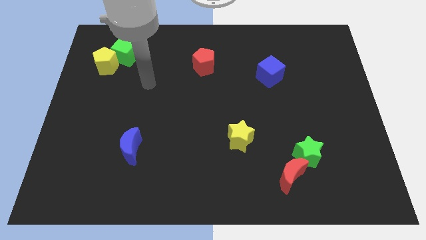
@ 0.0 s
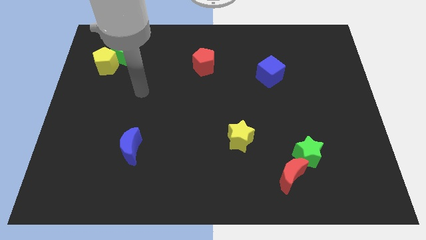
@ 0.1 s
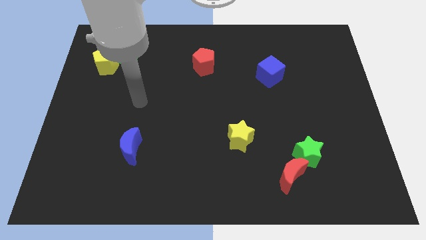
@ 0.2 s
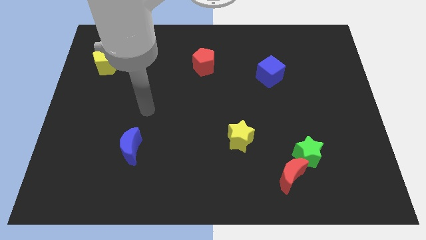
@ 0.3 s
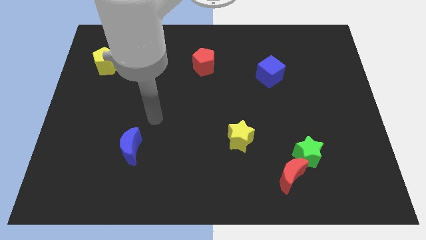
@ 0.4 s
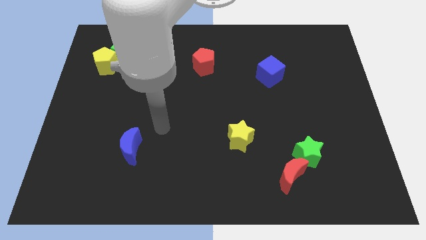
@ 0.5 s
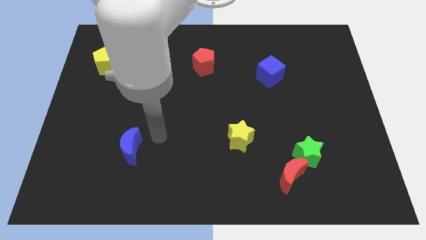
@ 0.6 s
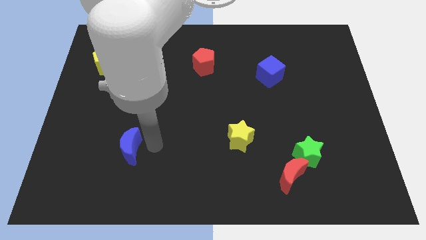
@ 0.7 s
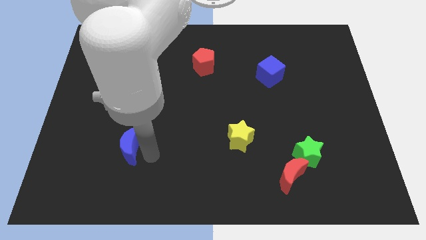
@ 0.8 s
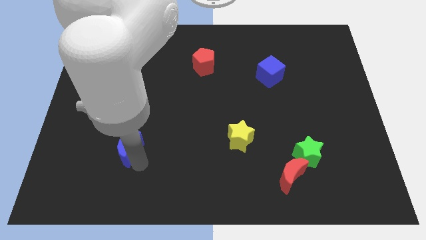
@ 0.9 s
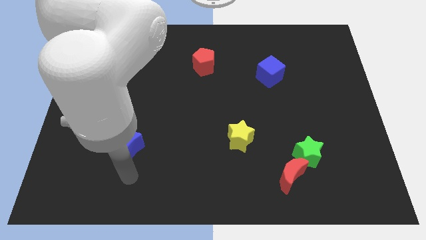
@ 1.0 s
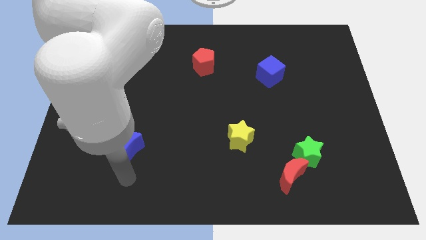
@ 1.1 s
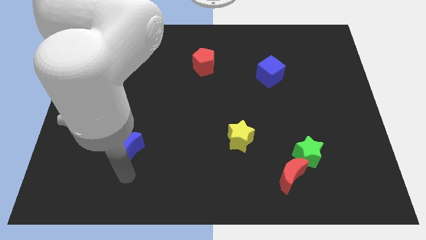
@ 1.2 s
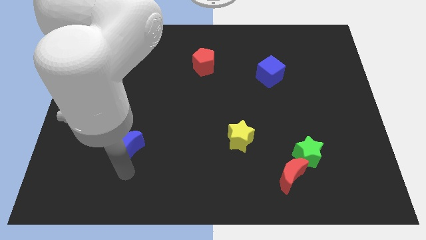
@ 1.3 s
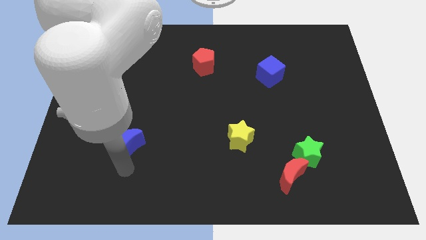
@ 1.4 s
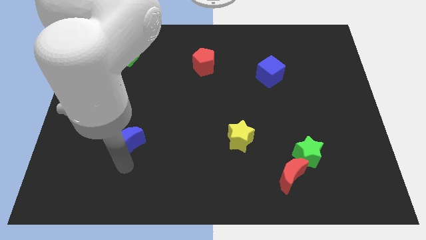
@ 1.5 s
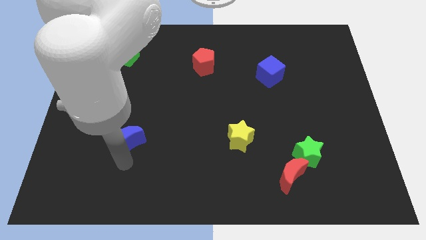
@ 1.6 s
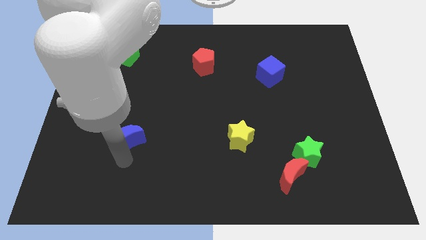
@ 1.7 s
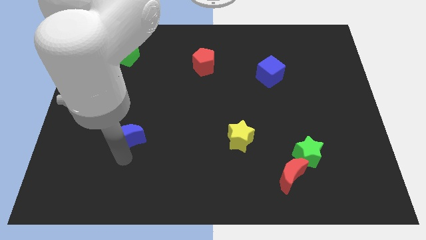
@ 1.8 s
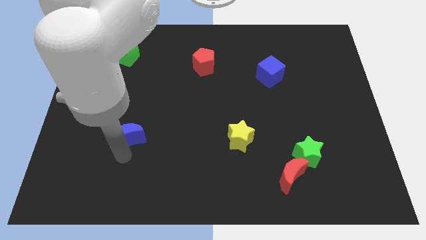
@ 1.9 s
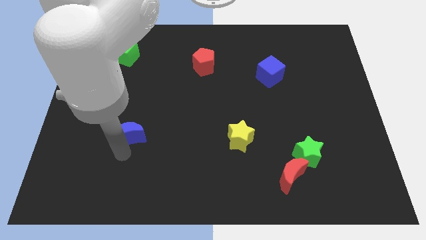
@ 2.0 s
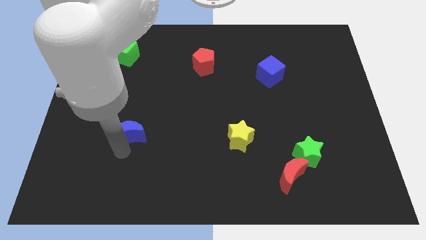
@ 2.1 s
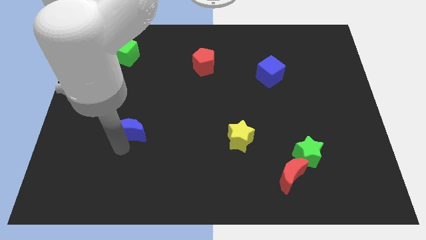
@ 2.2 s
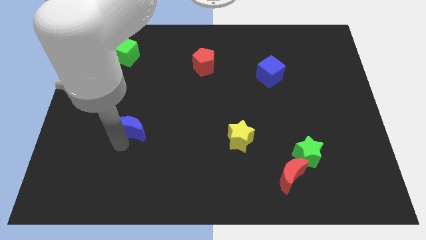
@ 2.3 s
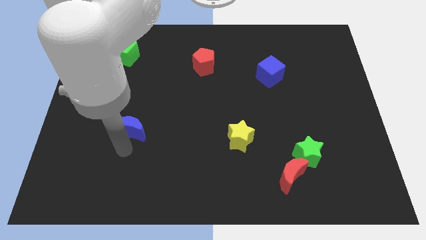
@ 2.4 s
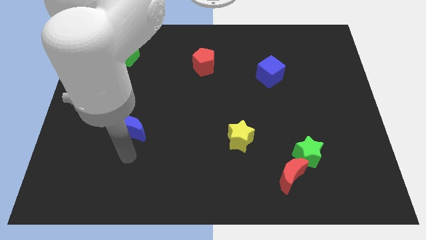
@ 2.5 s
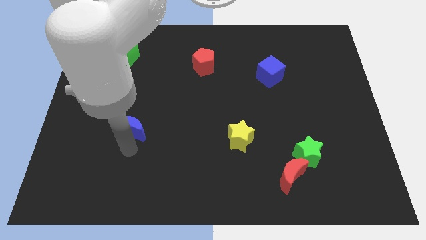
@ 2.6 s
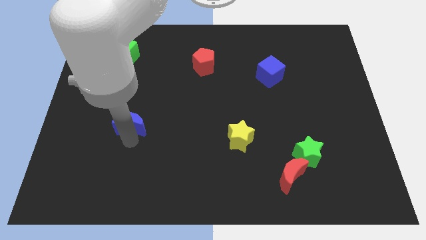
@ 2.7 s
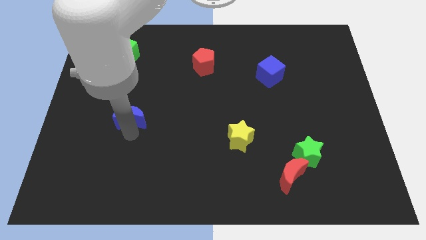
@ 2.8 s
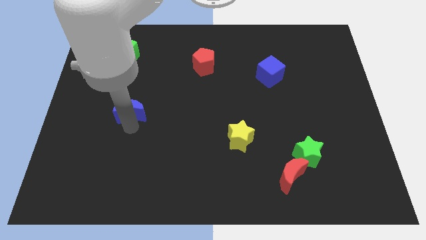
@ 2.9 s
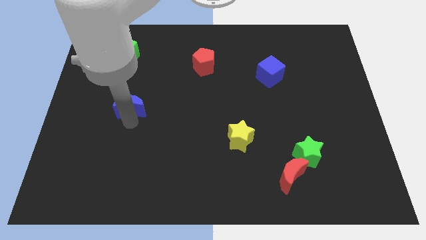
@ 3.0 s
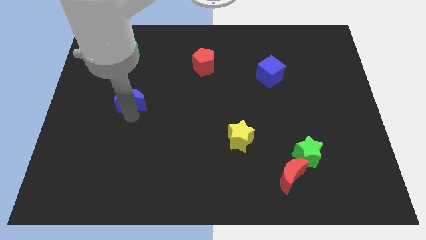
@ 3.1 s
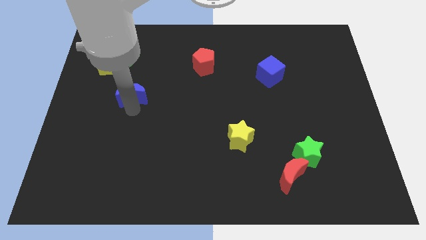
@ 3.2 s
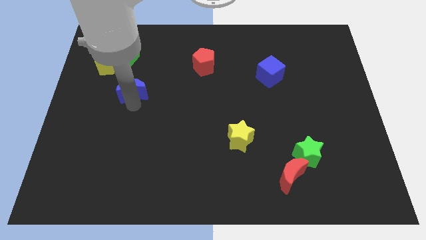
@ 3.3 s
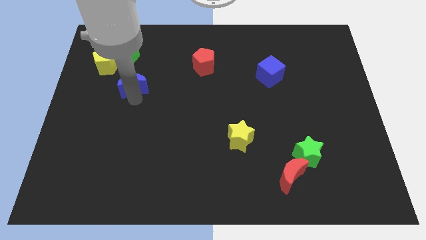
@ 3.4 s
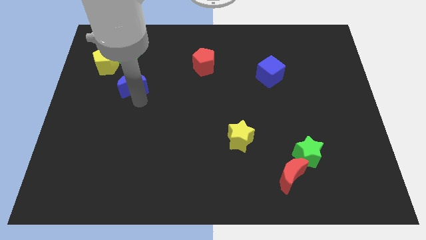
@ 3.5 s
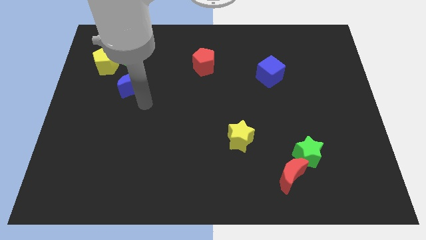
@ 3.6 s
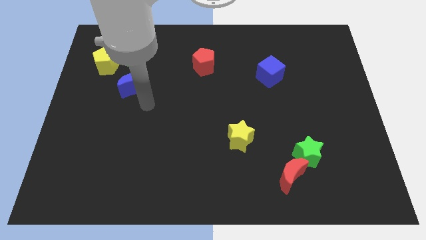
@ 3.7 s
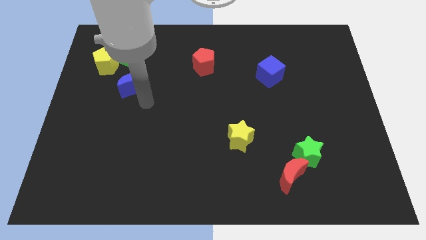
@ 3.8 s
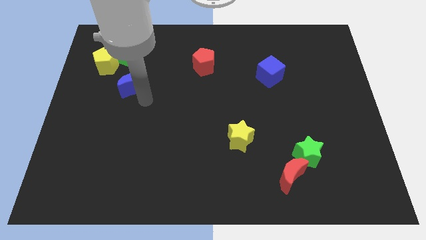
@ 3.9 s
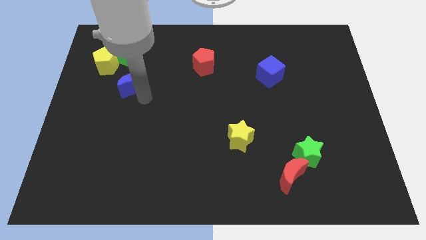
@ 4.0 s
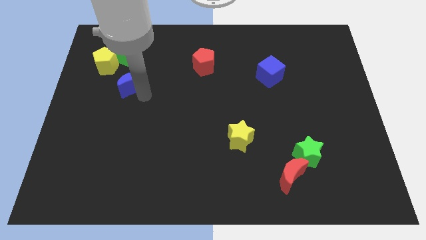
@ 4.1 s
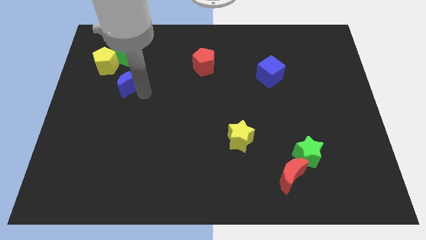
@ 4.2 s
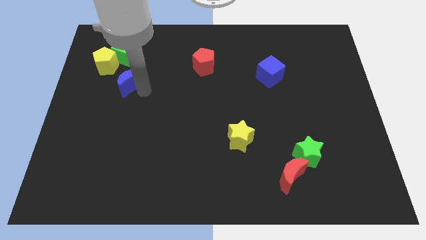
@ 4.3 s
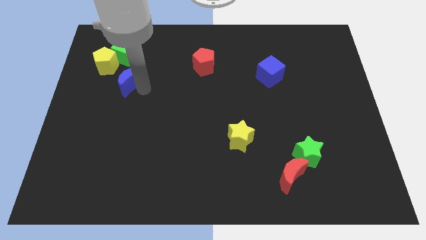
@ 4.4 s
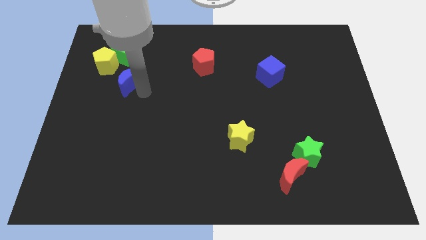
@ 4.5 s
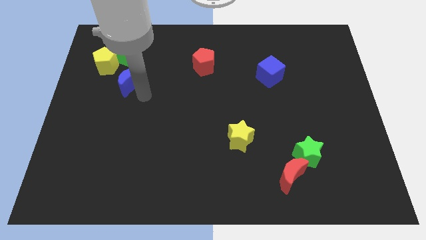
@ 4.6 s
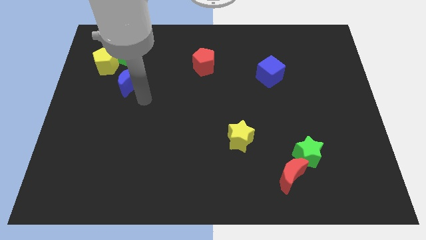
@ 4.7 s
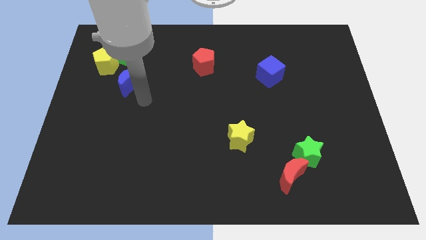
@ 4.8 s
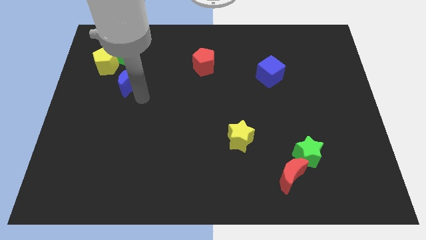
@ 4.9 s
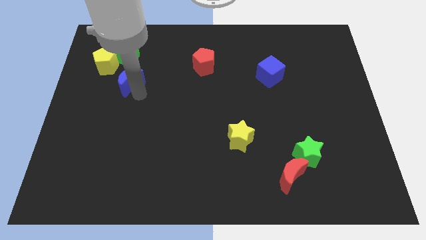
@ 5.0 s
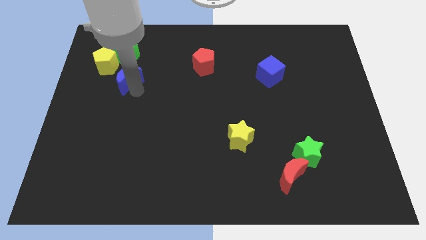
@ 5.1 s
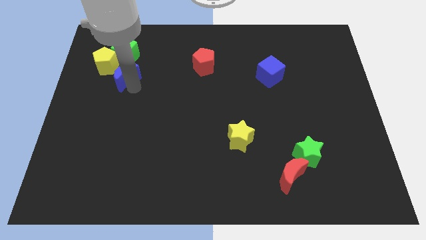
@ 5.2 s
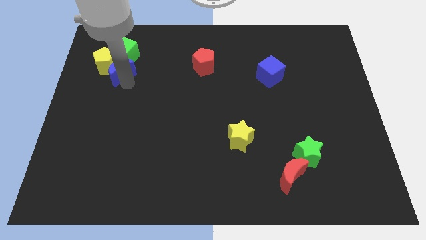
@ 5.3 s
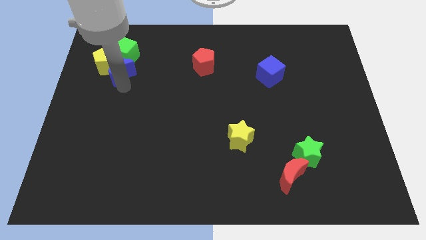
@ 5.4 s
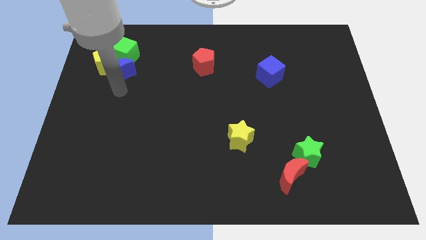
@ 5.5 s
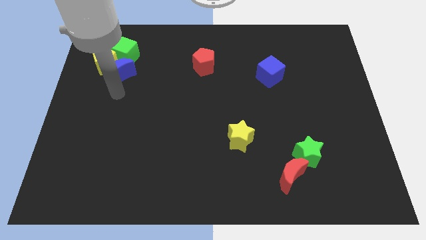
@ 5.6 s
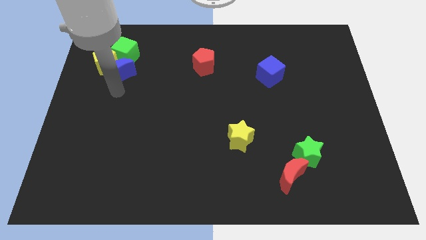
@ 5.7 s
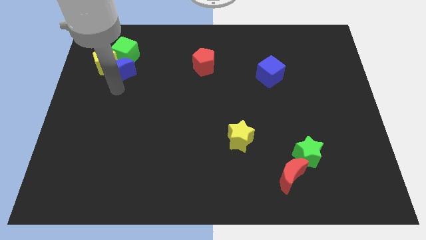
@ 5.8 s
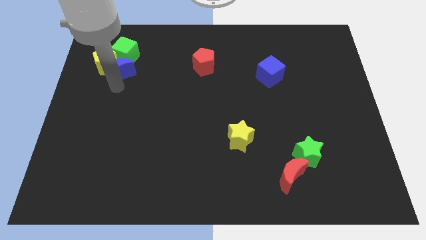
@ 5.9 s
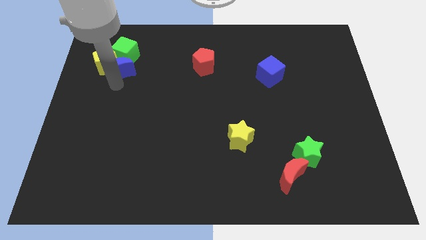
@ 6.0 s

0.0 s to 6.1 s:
slide the blue moon towards the green cube

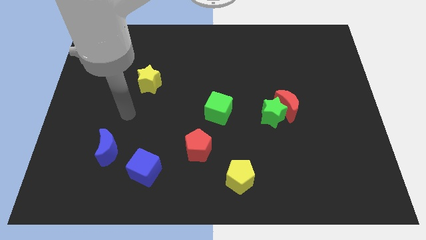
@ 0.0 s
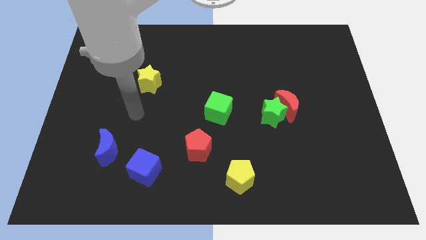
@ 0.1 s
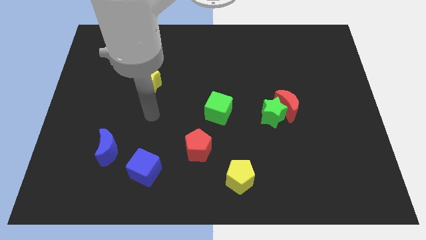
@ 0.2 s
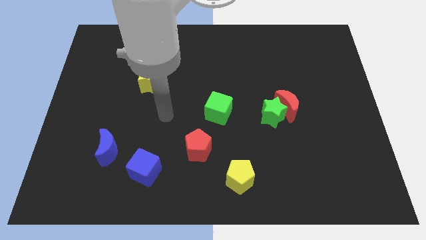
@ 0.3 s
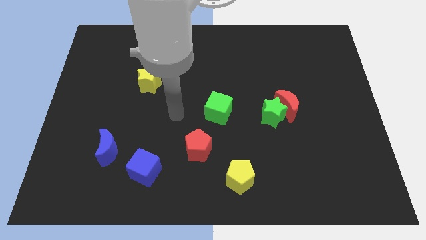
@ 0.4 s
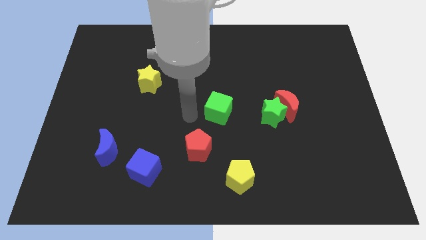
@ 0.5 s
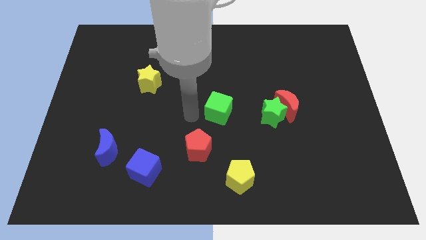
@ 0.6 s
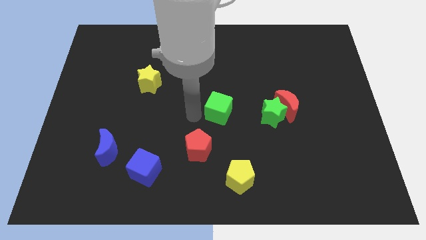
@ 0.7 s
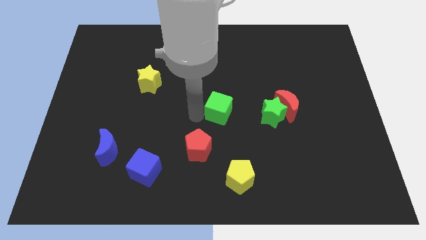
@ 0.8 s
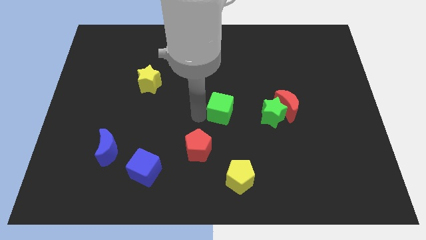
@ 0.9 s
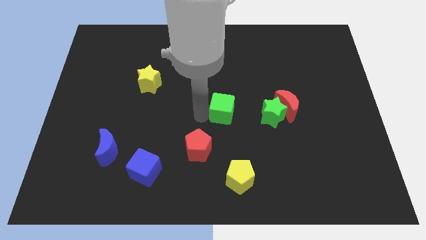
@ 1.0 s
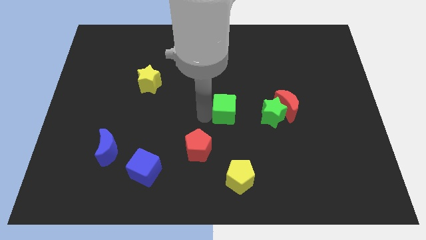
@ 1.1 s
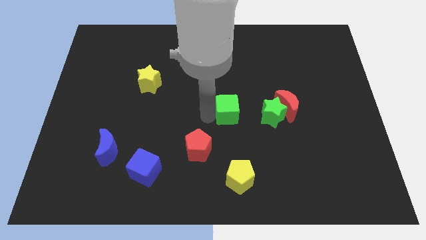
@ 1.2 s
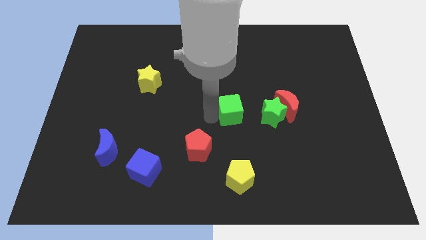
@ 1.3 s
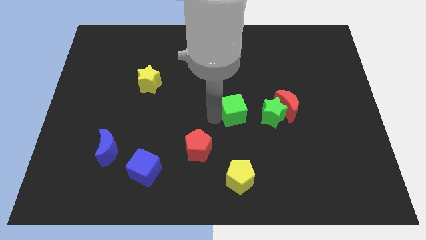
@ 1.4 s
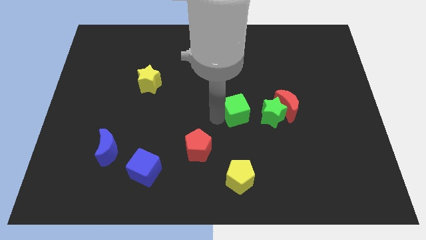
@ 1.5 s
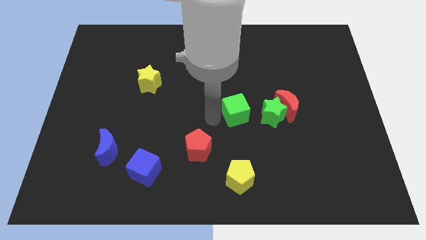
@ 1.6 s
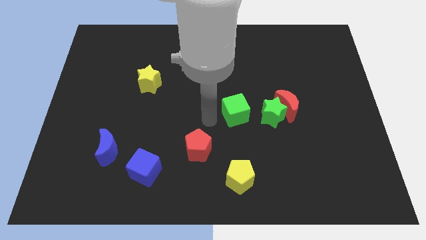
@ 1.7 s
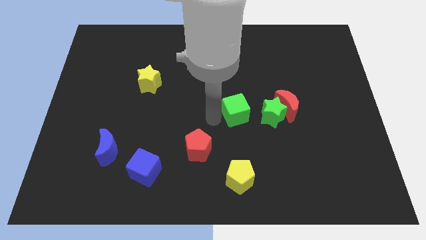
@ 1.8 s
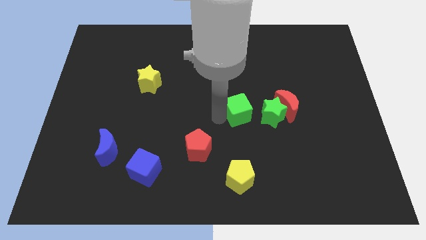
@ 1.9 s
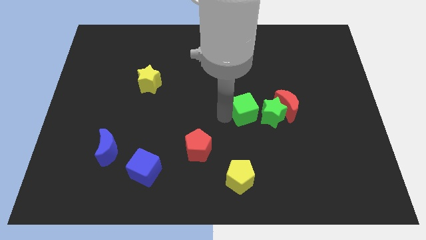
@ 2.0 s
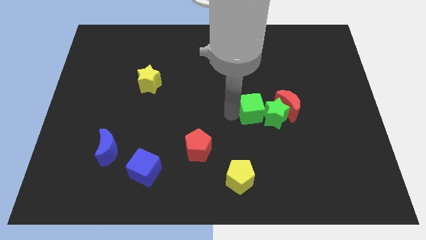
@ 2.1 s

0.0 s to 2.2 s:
move the green cube close to the green star

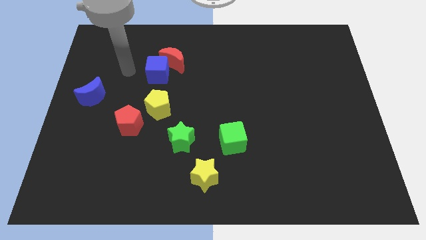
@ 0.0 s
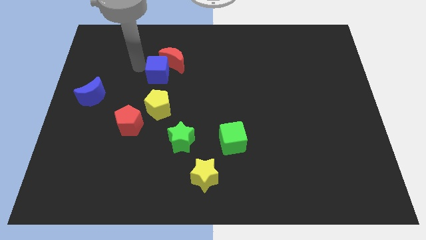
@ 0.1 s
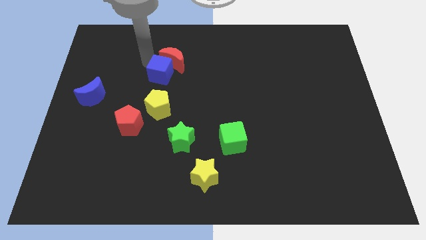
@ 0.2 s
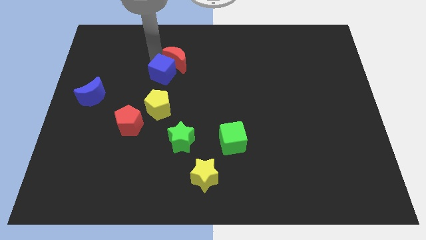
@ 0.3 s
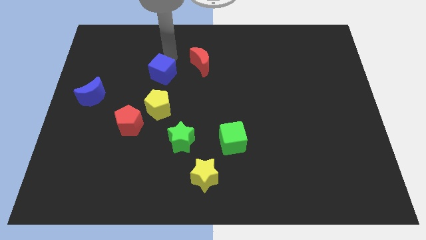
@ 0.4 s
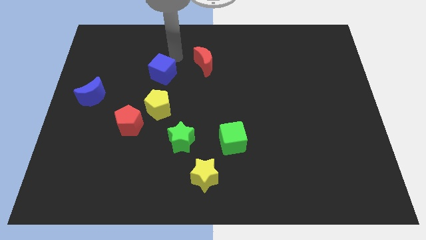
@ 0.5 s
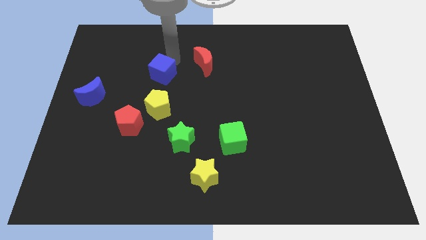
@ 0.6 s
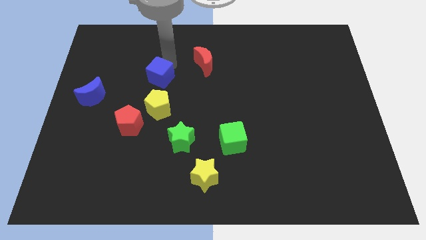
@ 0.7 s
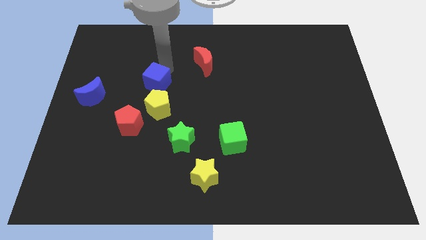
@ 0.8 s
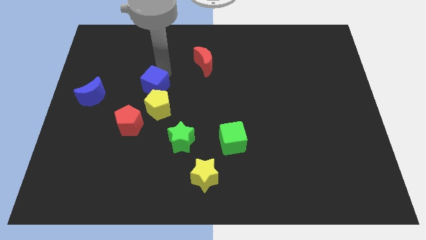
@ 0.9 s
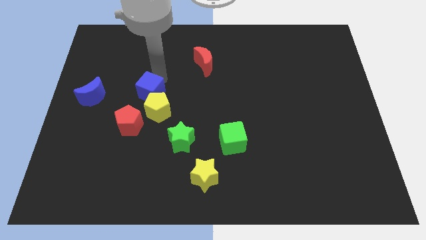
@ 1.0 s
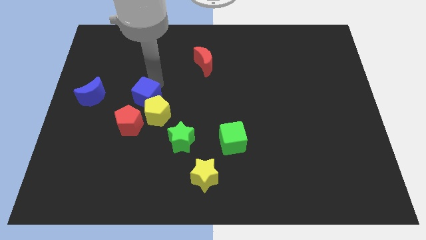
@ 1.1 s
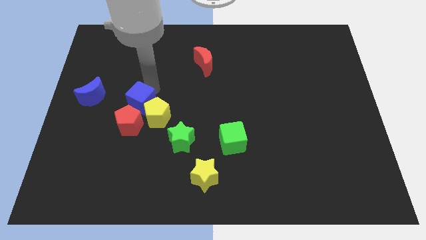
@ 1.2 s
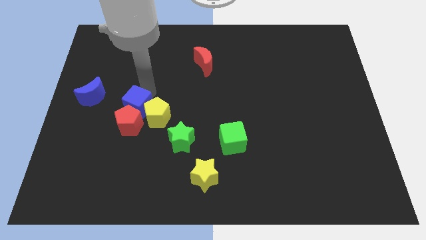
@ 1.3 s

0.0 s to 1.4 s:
move the blue cube to the red pentagon
